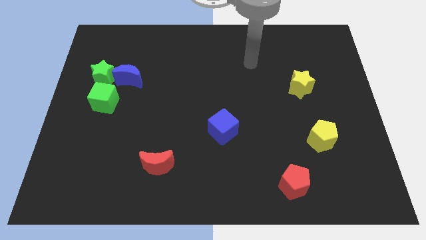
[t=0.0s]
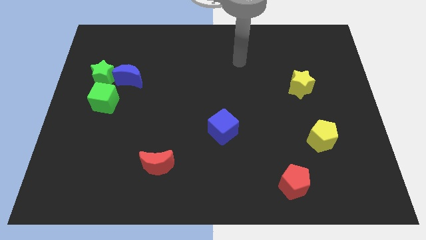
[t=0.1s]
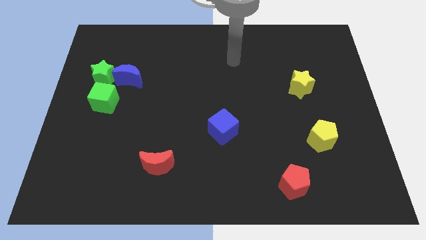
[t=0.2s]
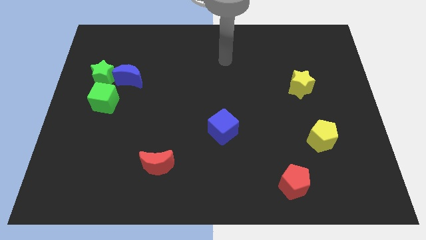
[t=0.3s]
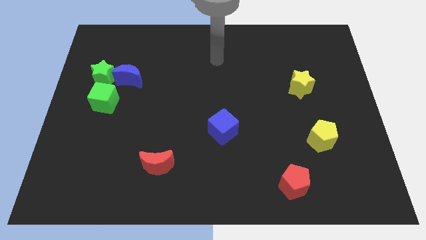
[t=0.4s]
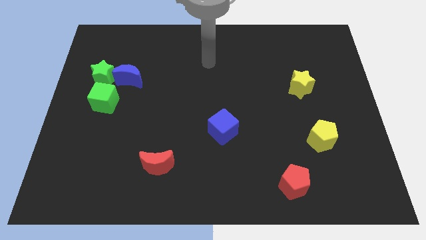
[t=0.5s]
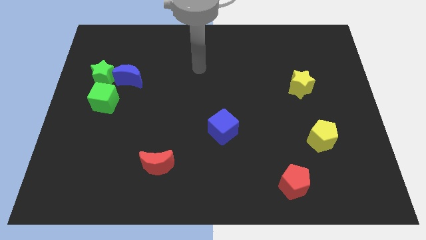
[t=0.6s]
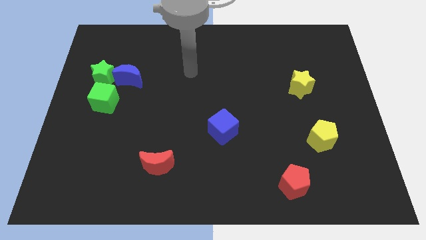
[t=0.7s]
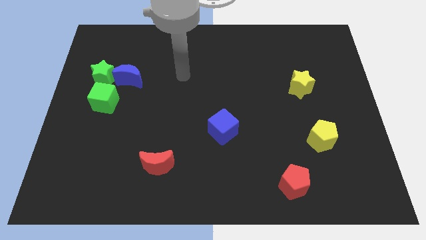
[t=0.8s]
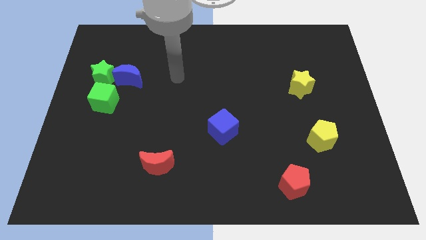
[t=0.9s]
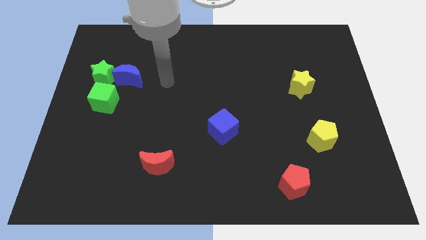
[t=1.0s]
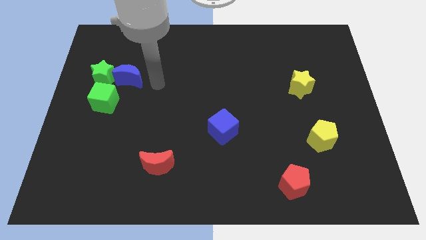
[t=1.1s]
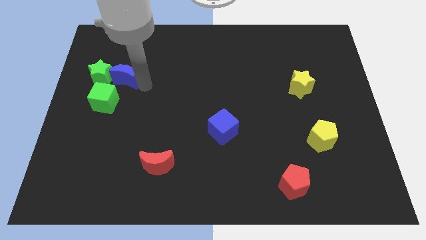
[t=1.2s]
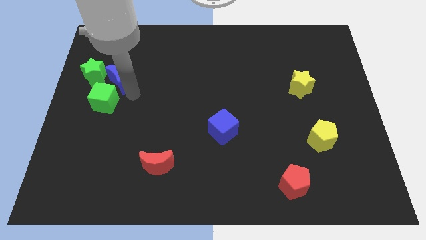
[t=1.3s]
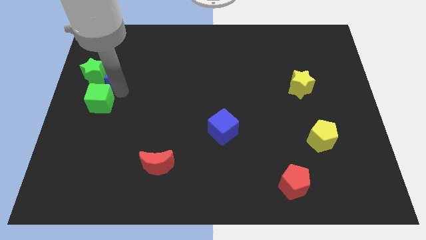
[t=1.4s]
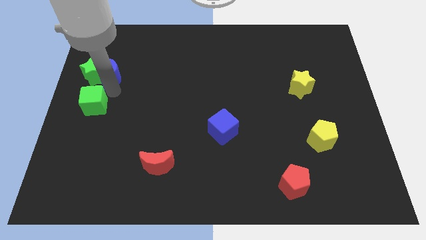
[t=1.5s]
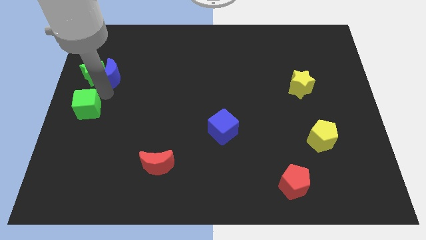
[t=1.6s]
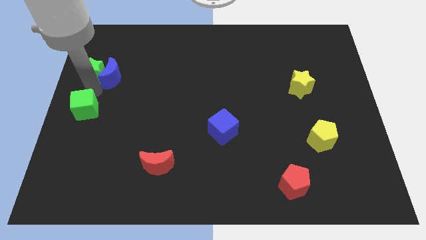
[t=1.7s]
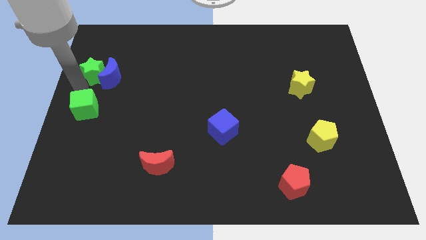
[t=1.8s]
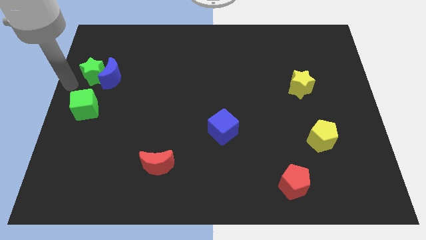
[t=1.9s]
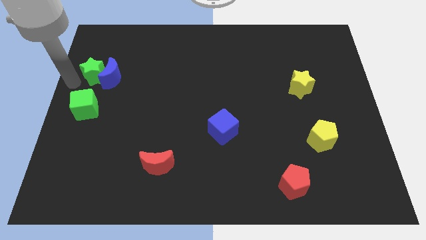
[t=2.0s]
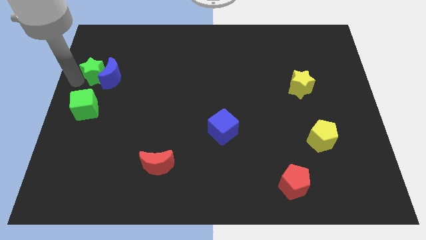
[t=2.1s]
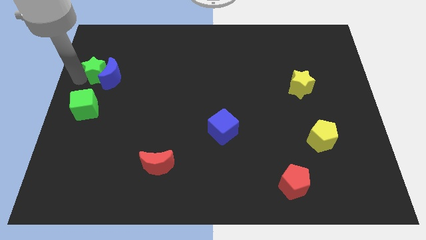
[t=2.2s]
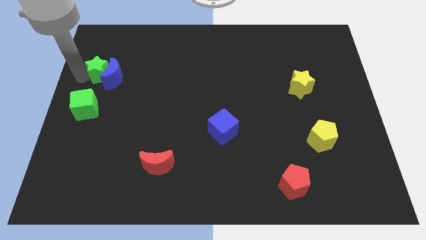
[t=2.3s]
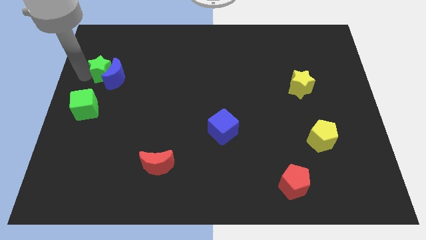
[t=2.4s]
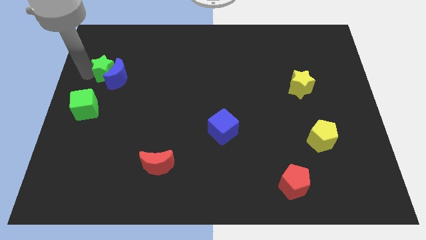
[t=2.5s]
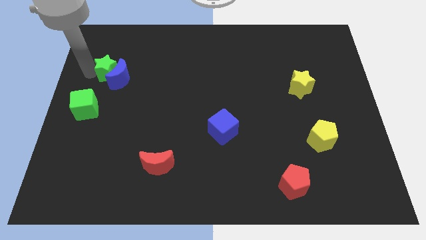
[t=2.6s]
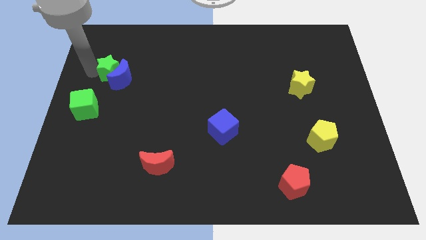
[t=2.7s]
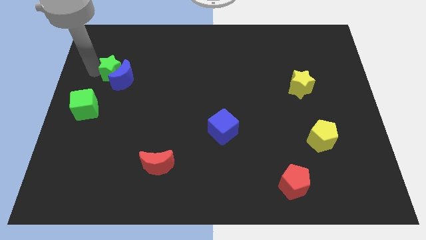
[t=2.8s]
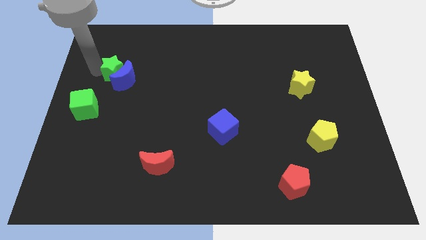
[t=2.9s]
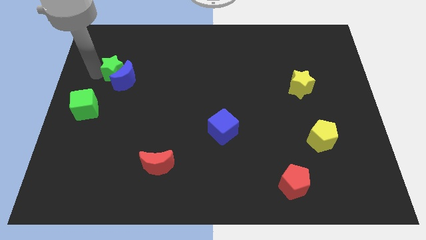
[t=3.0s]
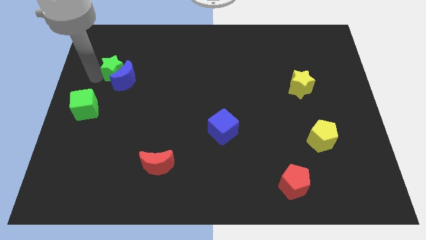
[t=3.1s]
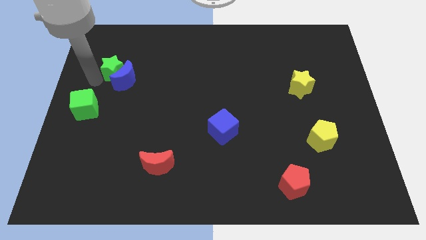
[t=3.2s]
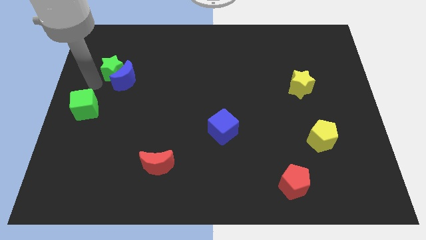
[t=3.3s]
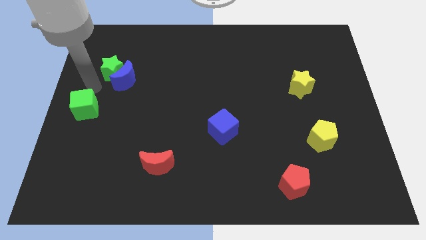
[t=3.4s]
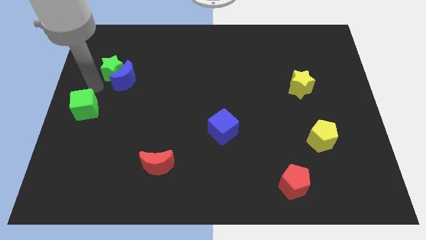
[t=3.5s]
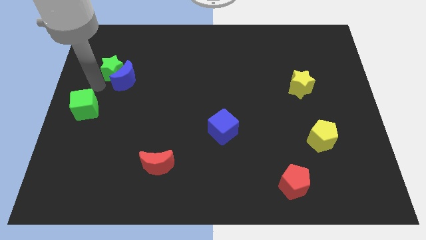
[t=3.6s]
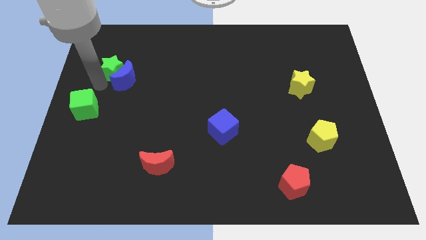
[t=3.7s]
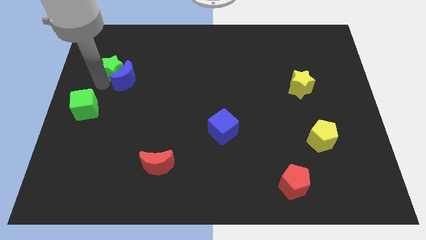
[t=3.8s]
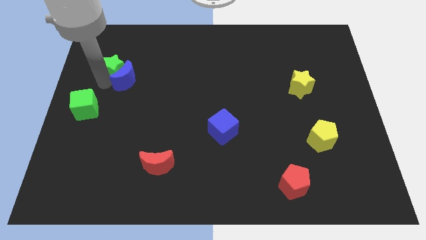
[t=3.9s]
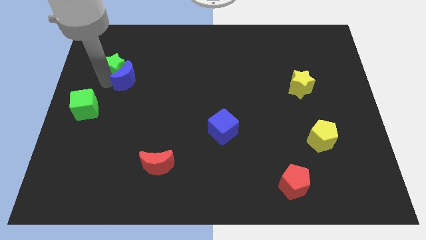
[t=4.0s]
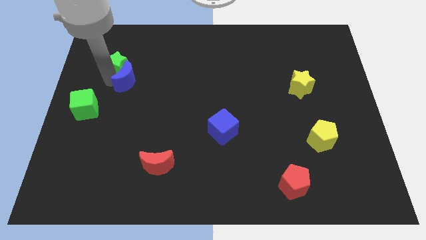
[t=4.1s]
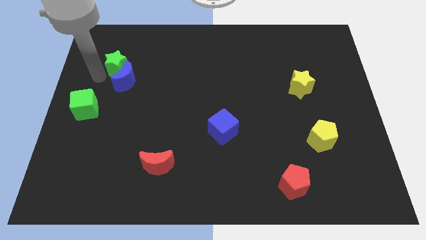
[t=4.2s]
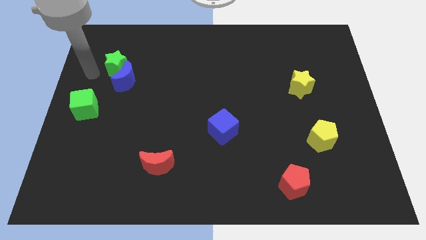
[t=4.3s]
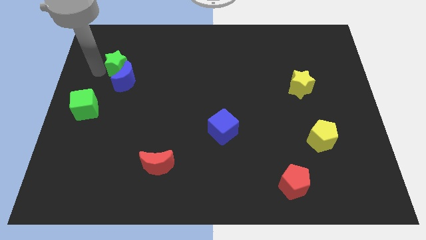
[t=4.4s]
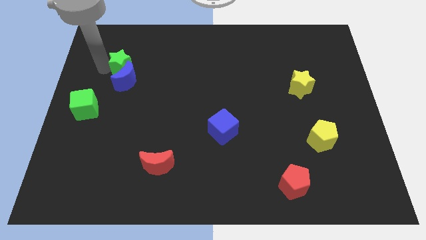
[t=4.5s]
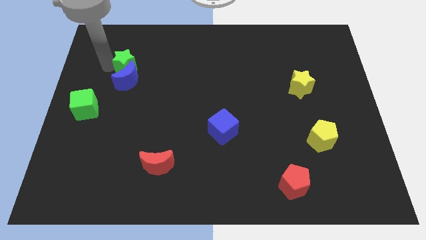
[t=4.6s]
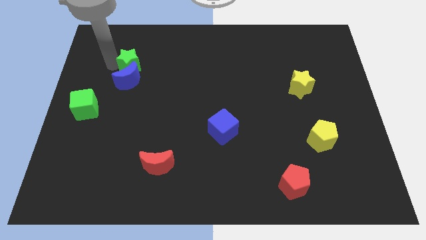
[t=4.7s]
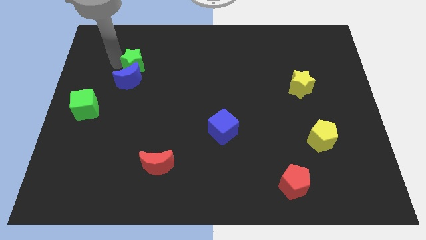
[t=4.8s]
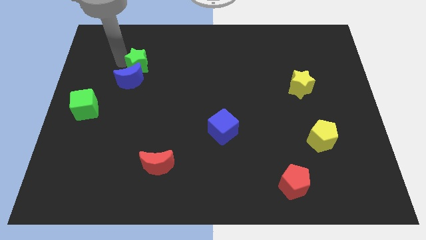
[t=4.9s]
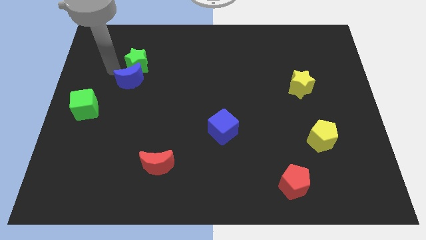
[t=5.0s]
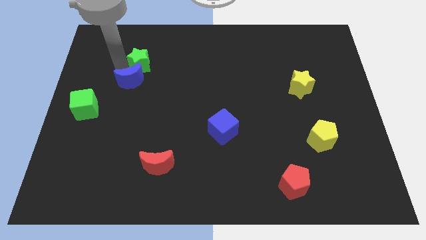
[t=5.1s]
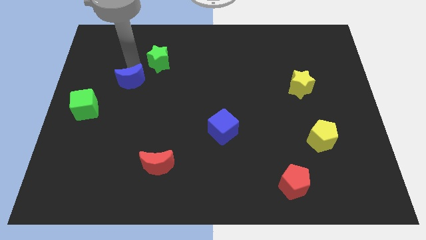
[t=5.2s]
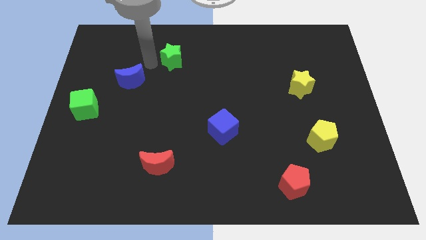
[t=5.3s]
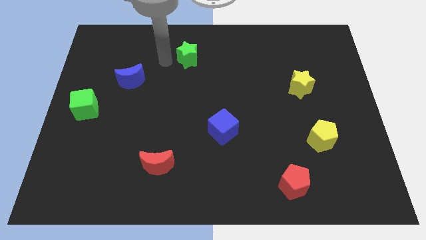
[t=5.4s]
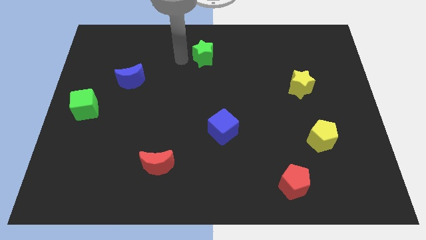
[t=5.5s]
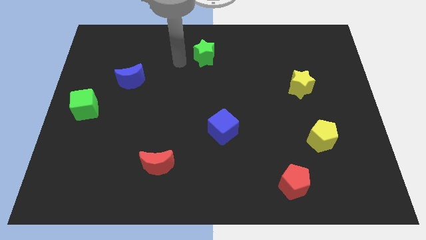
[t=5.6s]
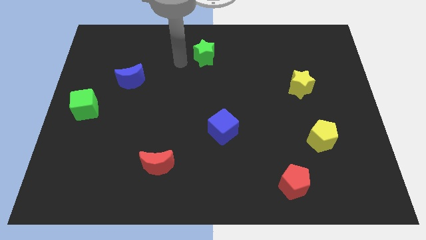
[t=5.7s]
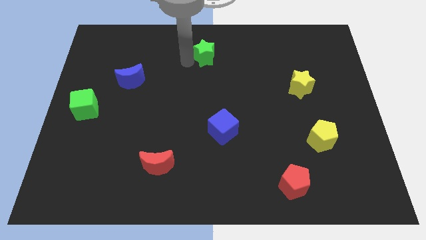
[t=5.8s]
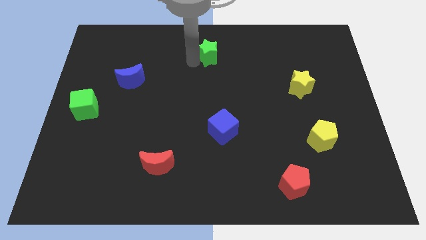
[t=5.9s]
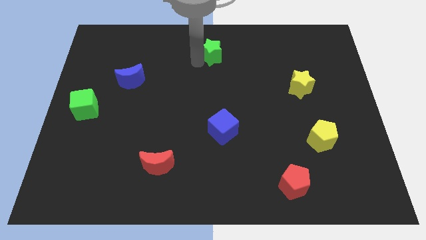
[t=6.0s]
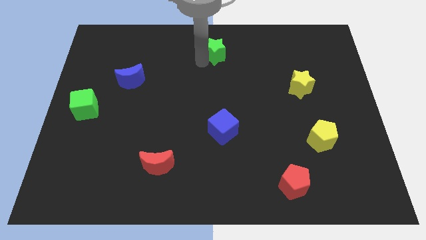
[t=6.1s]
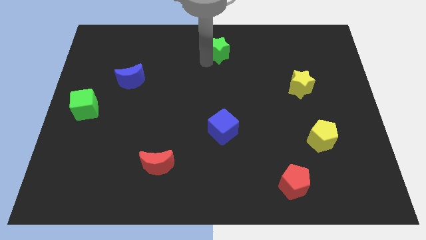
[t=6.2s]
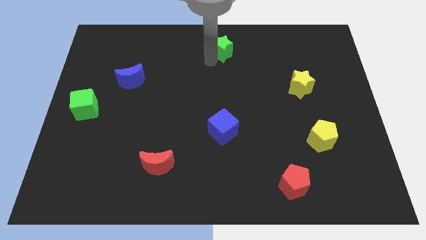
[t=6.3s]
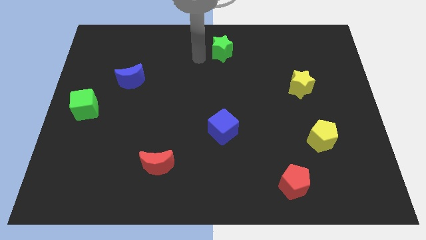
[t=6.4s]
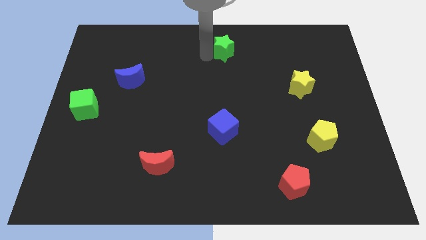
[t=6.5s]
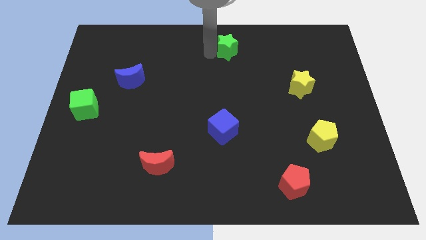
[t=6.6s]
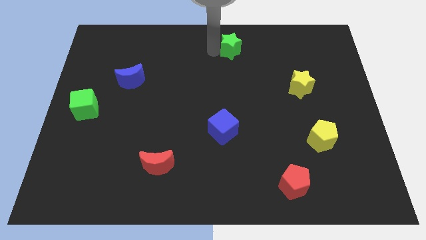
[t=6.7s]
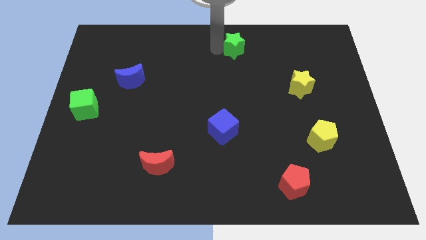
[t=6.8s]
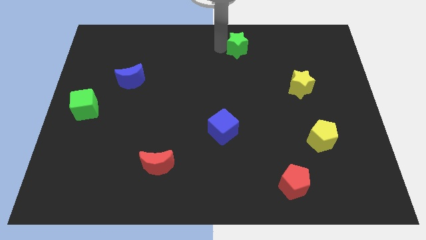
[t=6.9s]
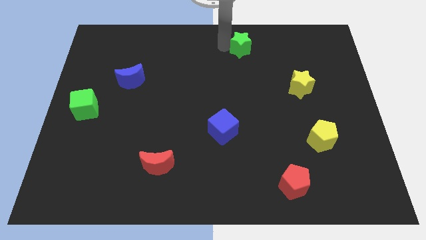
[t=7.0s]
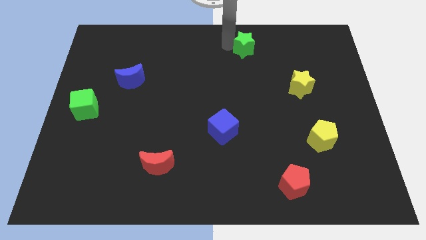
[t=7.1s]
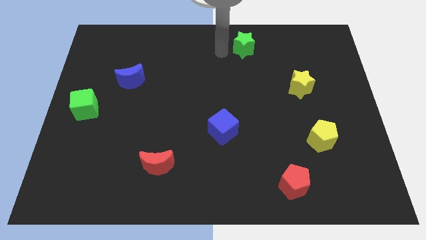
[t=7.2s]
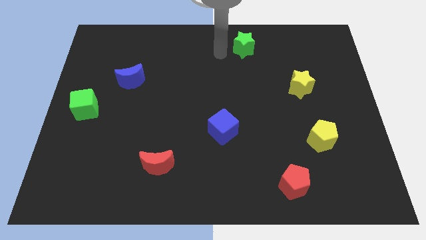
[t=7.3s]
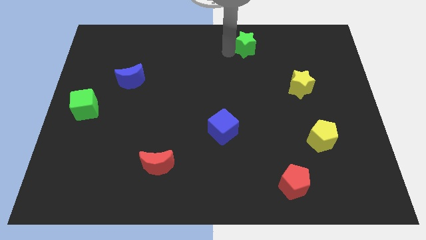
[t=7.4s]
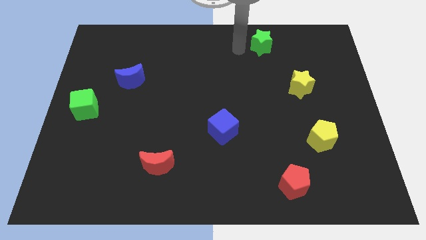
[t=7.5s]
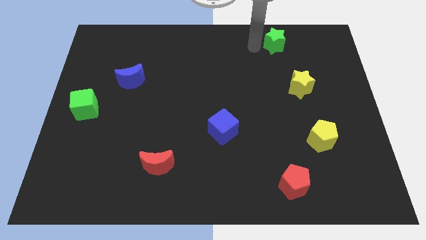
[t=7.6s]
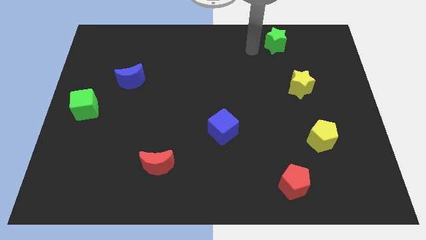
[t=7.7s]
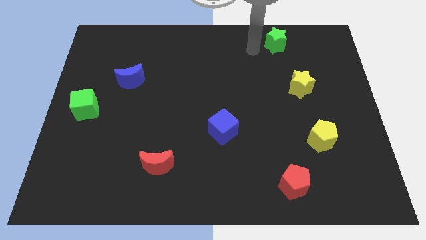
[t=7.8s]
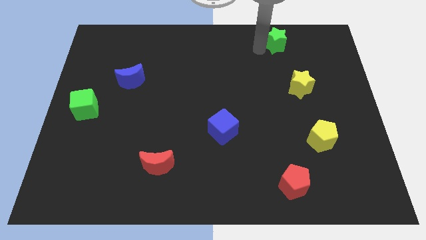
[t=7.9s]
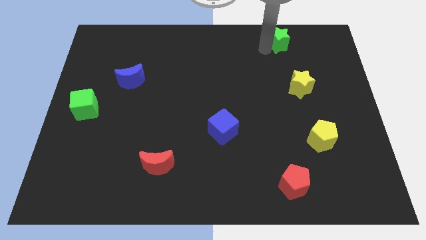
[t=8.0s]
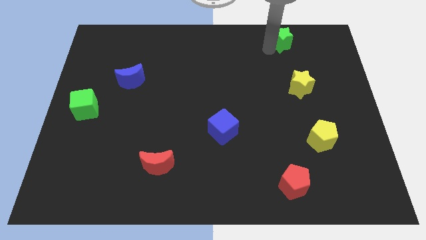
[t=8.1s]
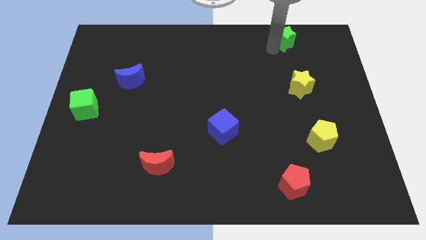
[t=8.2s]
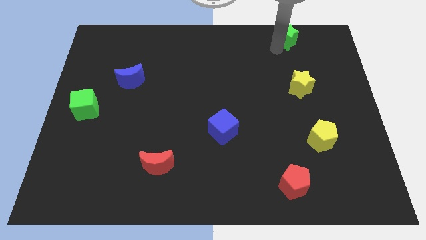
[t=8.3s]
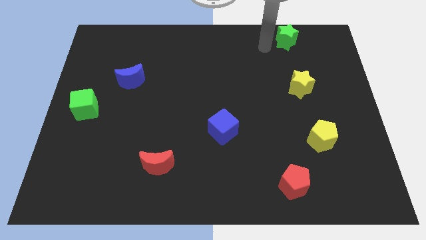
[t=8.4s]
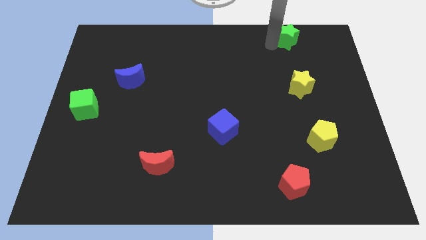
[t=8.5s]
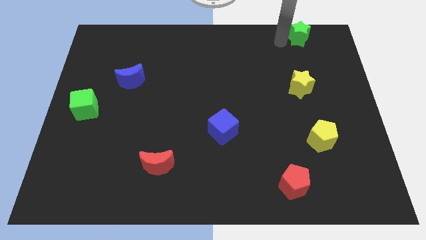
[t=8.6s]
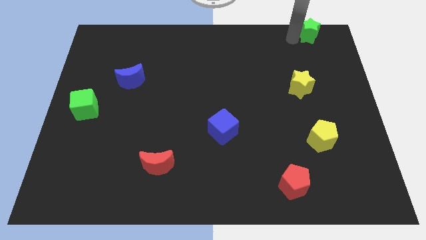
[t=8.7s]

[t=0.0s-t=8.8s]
put the green star to the top right corner
